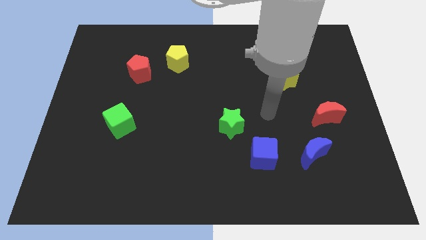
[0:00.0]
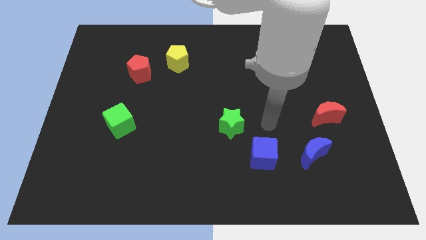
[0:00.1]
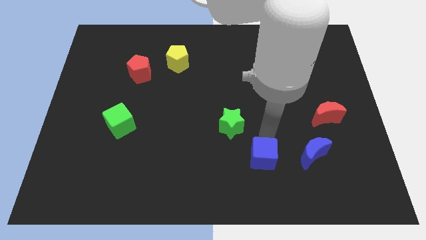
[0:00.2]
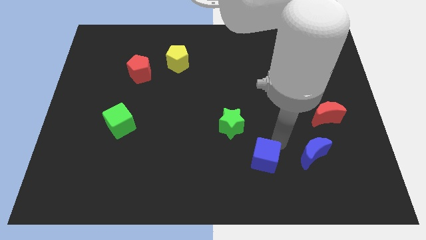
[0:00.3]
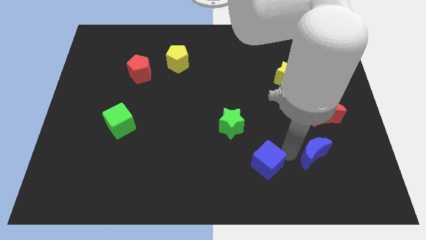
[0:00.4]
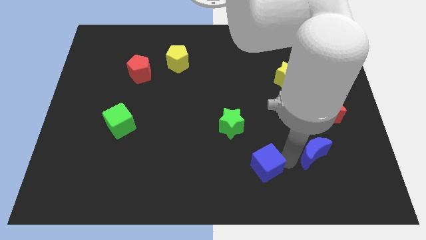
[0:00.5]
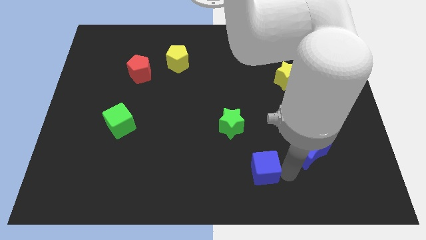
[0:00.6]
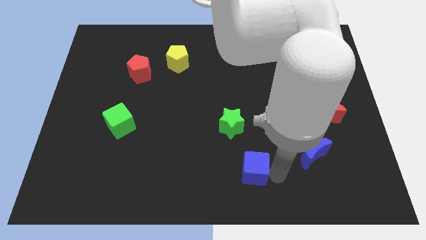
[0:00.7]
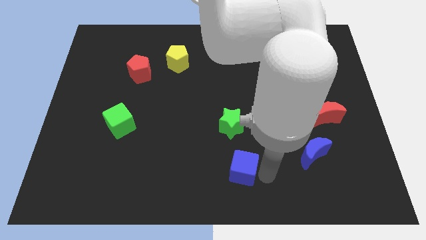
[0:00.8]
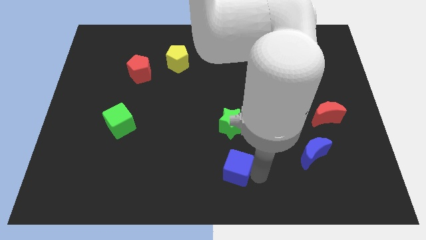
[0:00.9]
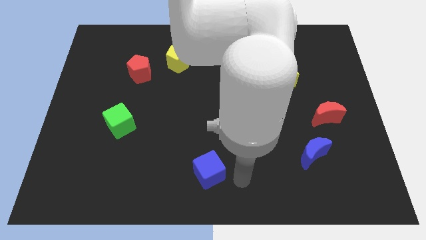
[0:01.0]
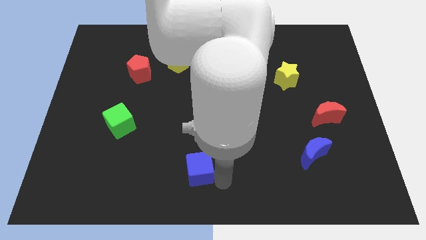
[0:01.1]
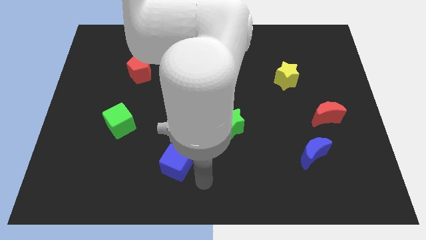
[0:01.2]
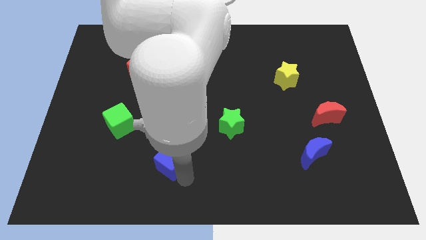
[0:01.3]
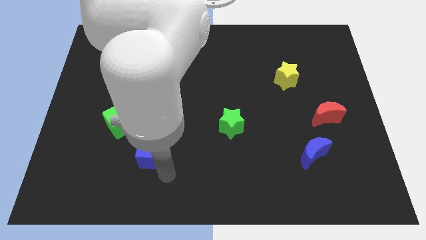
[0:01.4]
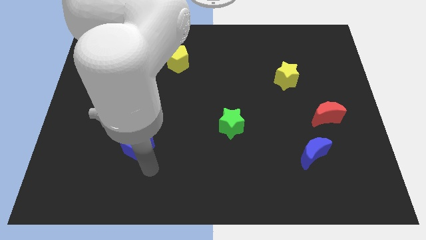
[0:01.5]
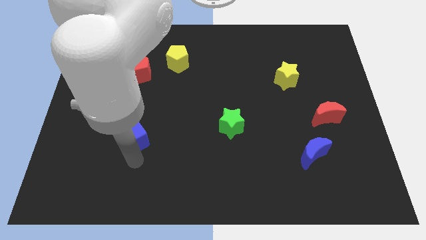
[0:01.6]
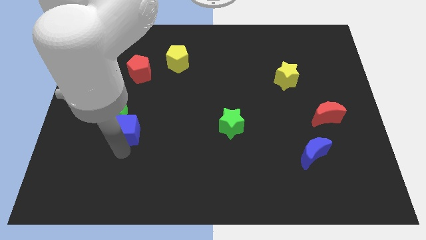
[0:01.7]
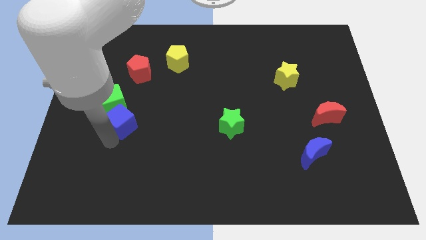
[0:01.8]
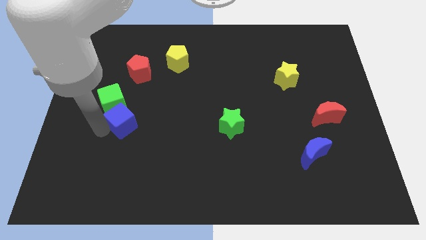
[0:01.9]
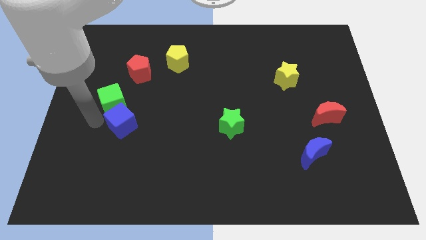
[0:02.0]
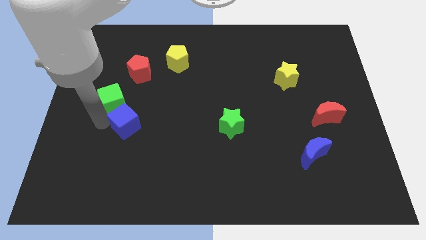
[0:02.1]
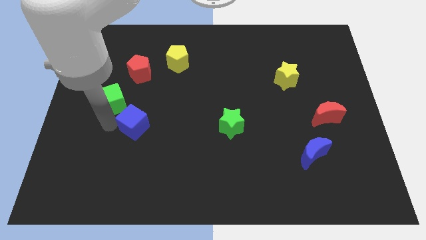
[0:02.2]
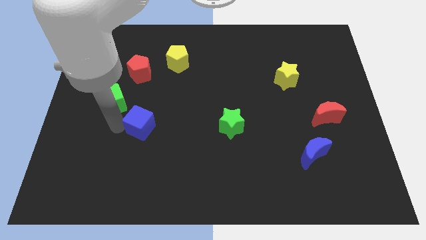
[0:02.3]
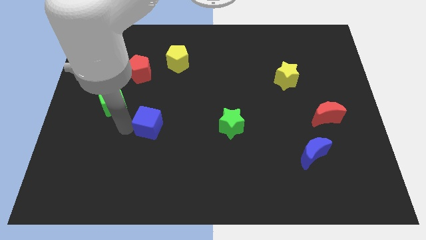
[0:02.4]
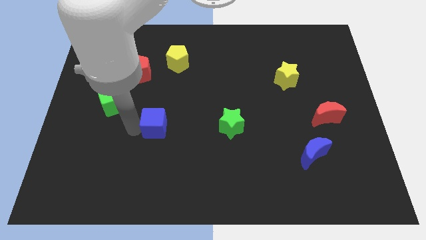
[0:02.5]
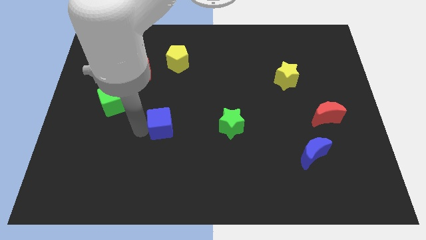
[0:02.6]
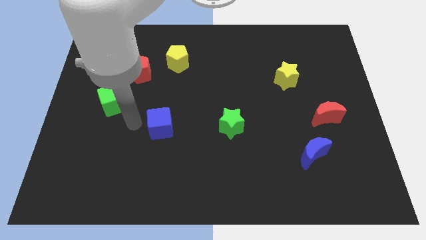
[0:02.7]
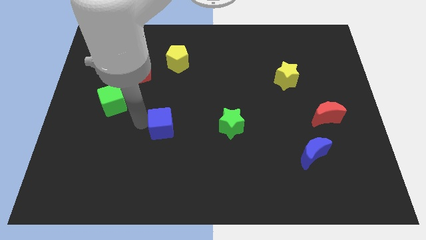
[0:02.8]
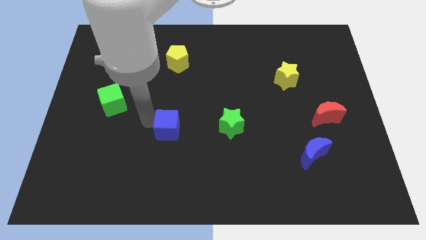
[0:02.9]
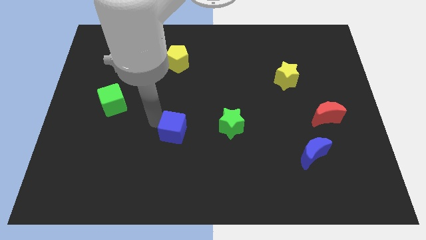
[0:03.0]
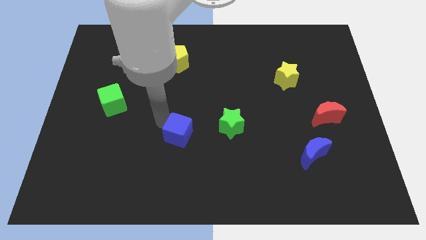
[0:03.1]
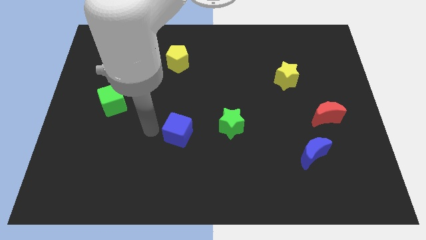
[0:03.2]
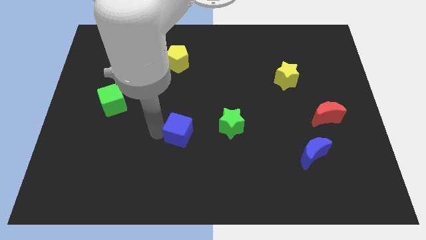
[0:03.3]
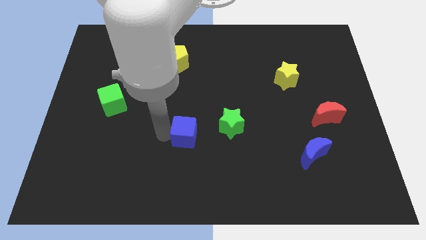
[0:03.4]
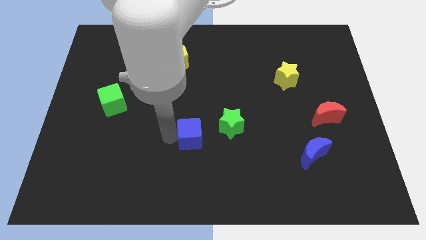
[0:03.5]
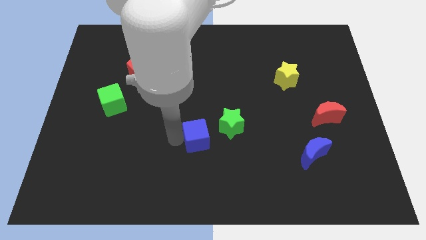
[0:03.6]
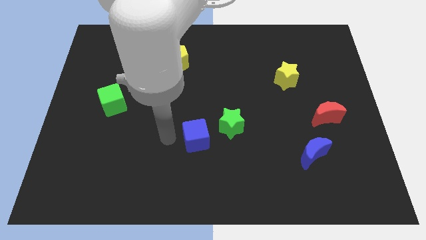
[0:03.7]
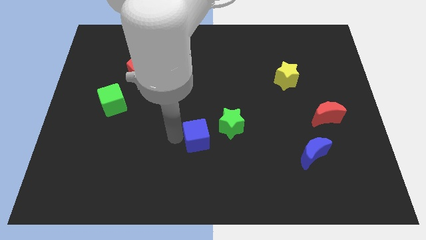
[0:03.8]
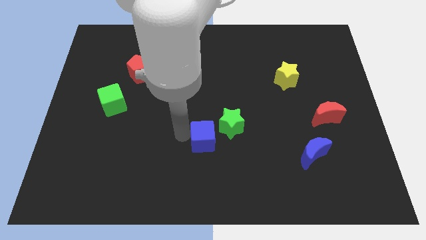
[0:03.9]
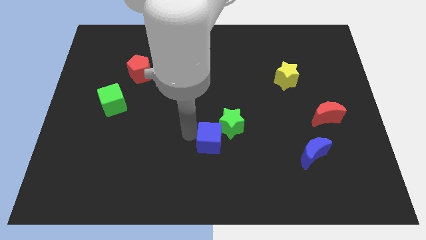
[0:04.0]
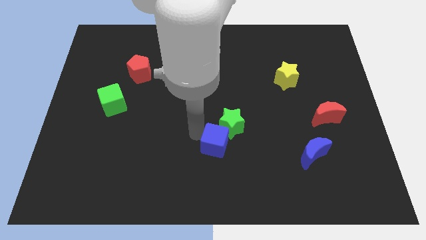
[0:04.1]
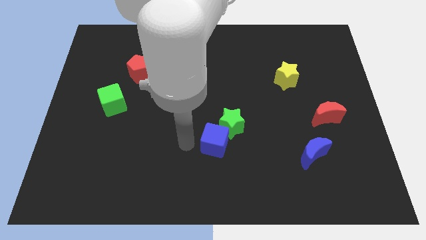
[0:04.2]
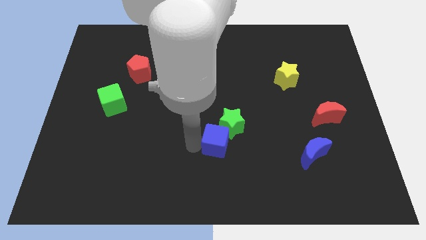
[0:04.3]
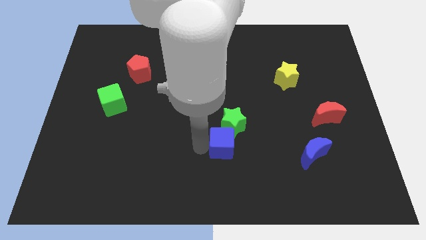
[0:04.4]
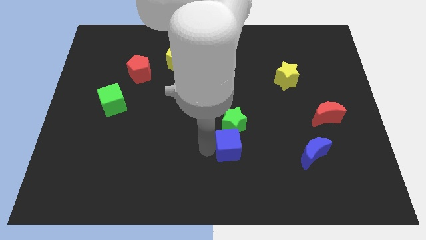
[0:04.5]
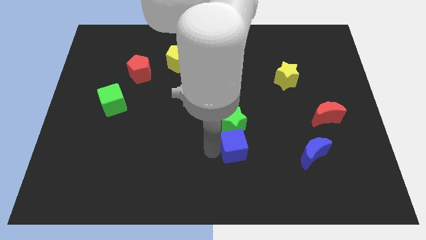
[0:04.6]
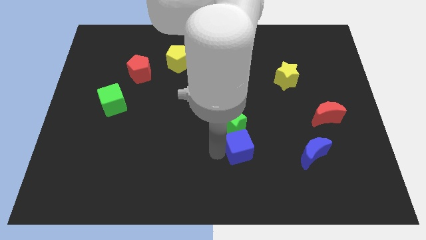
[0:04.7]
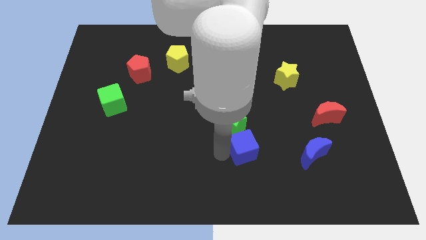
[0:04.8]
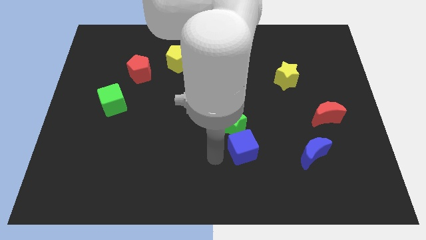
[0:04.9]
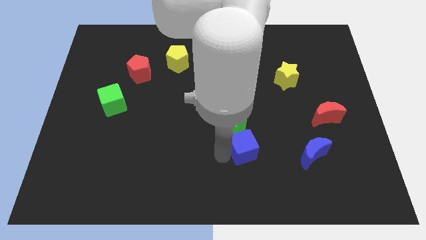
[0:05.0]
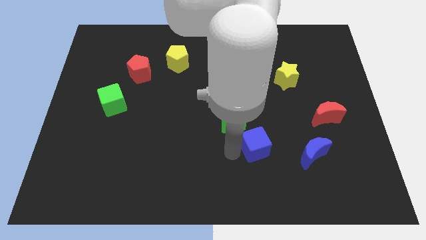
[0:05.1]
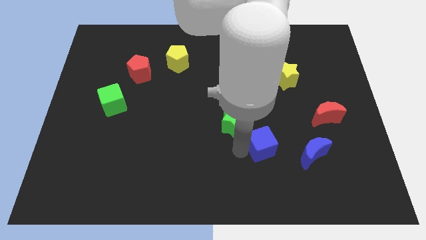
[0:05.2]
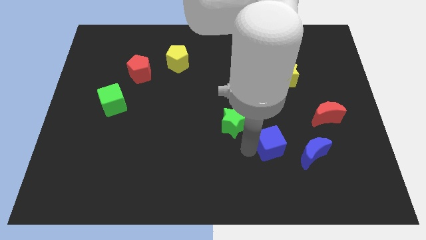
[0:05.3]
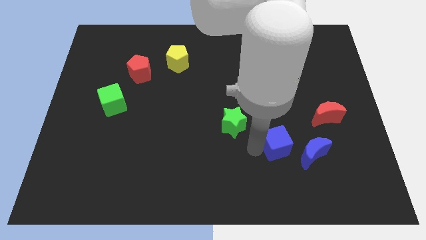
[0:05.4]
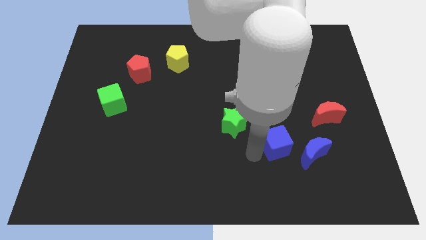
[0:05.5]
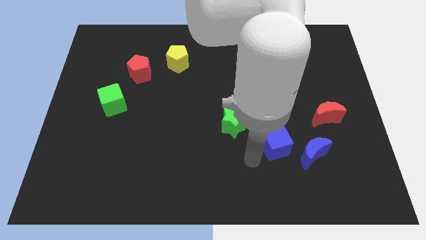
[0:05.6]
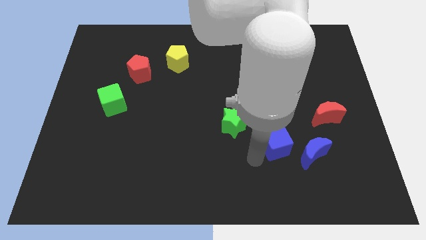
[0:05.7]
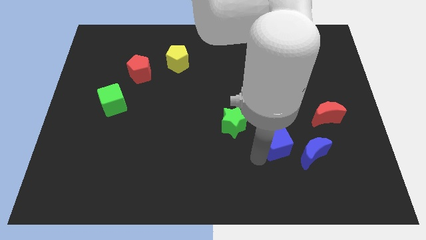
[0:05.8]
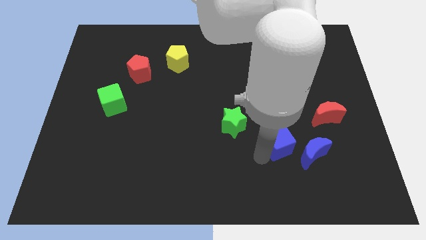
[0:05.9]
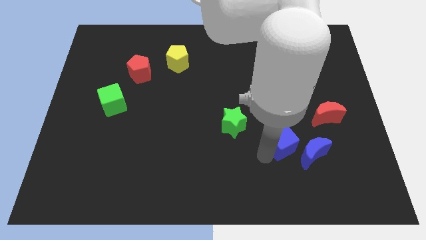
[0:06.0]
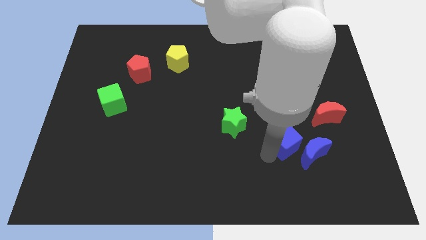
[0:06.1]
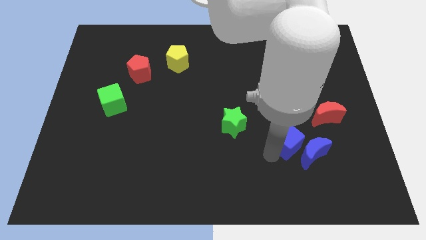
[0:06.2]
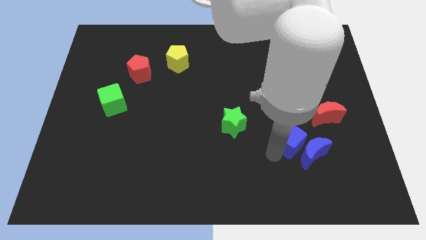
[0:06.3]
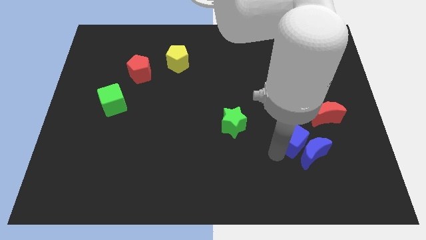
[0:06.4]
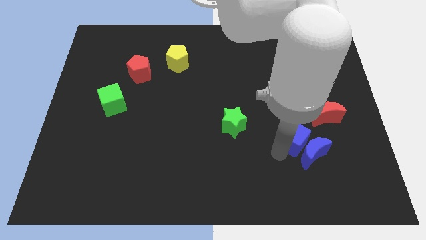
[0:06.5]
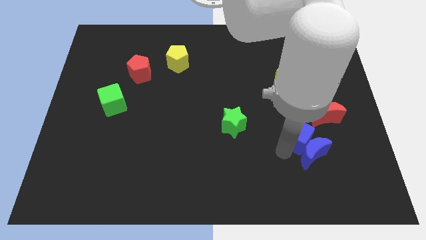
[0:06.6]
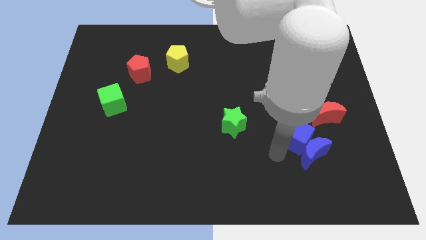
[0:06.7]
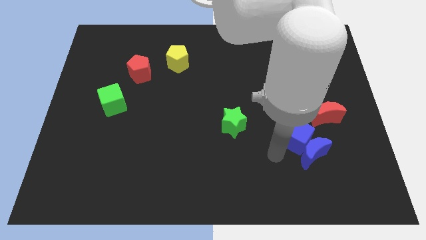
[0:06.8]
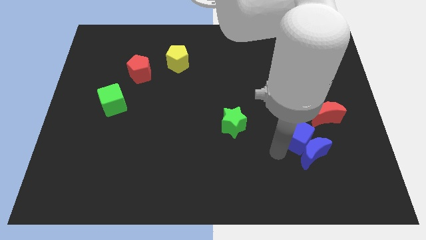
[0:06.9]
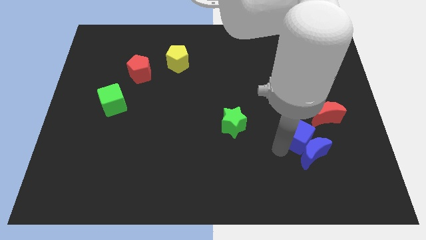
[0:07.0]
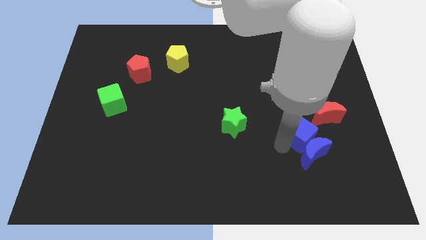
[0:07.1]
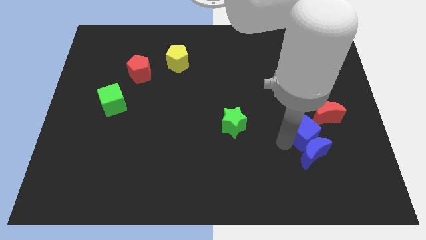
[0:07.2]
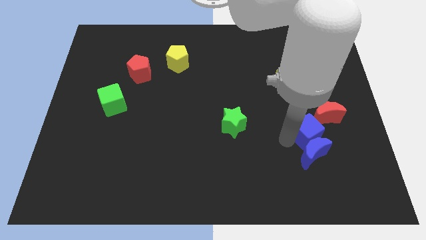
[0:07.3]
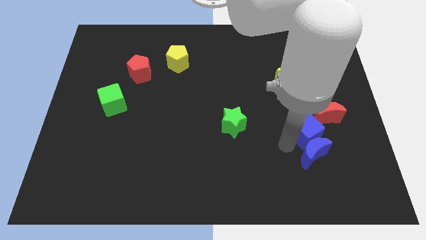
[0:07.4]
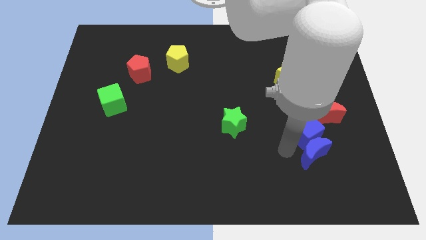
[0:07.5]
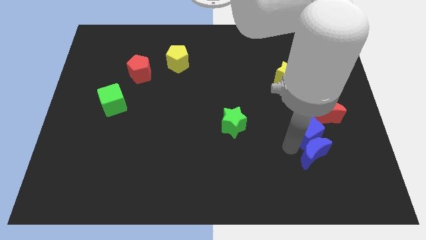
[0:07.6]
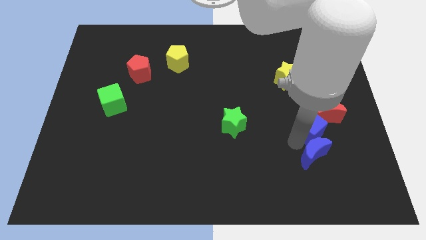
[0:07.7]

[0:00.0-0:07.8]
move the blue cube to the red moon

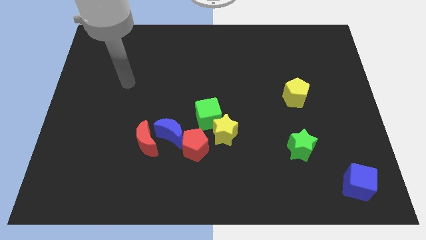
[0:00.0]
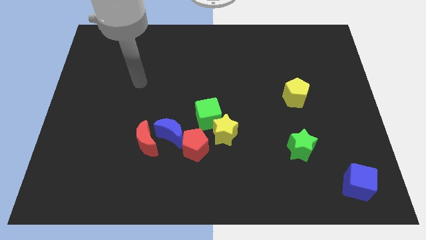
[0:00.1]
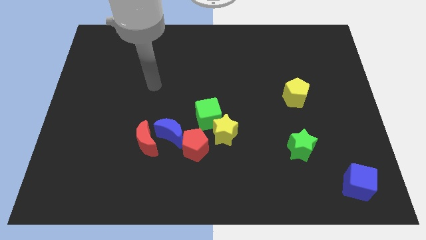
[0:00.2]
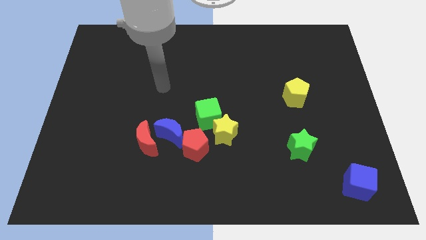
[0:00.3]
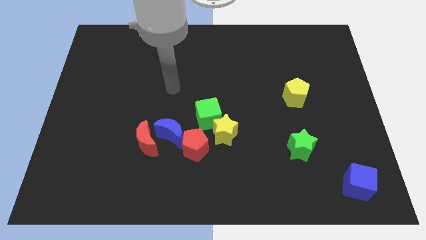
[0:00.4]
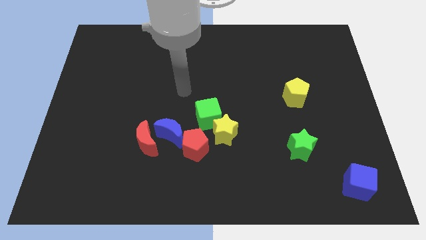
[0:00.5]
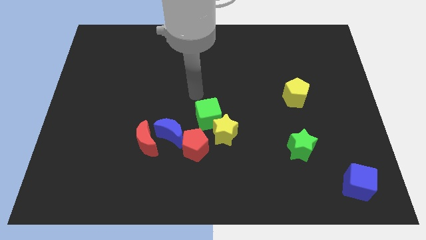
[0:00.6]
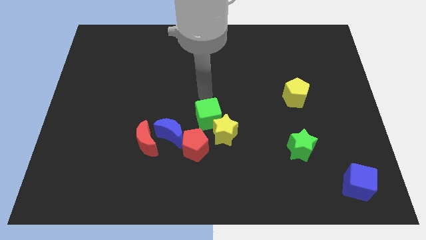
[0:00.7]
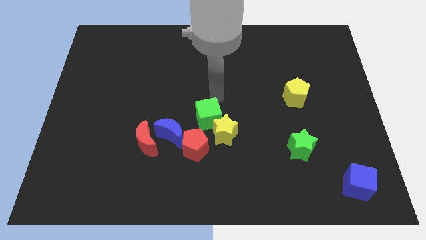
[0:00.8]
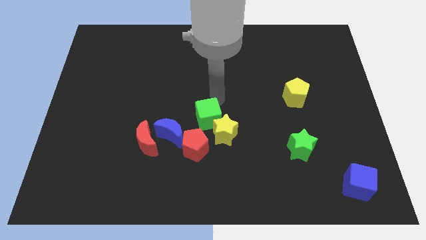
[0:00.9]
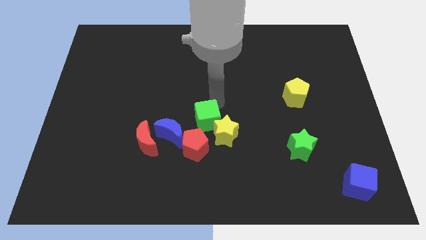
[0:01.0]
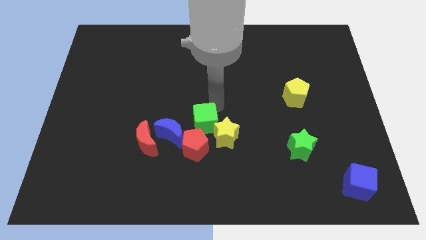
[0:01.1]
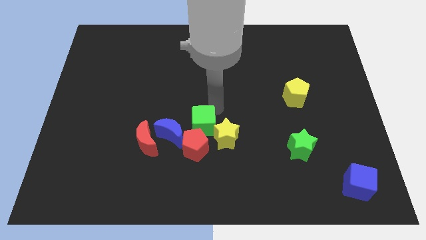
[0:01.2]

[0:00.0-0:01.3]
slide the green cube to the red pentagon
